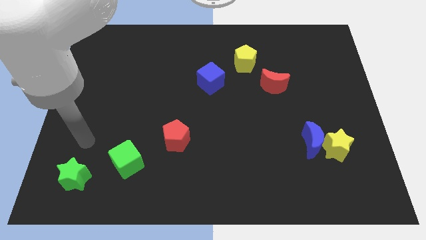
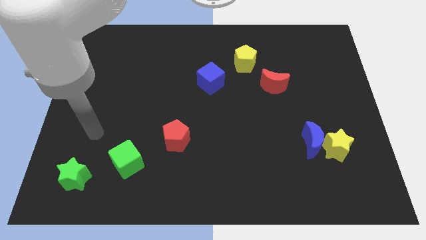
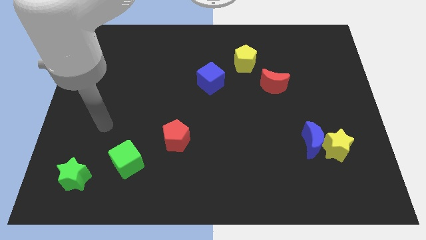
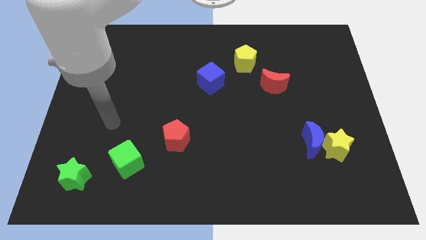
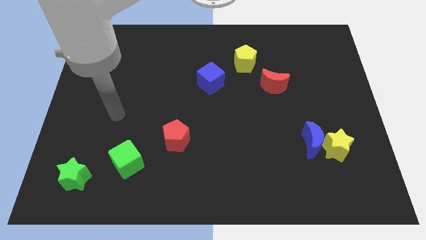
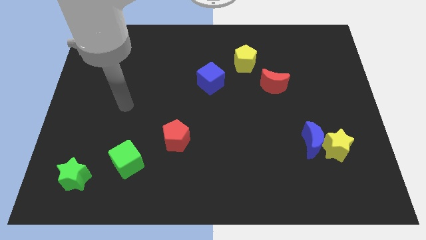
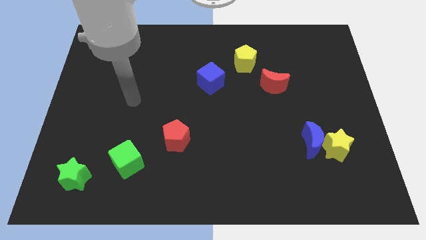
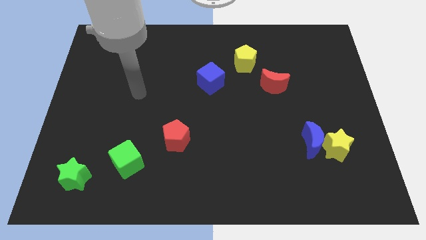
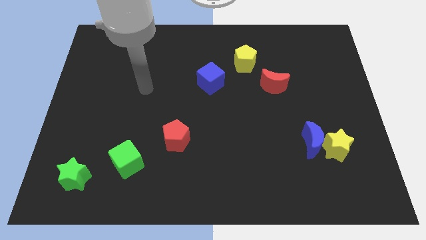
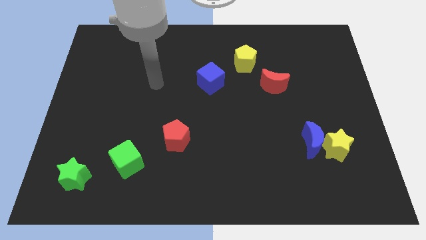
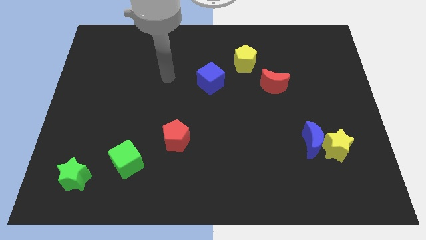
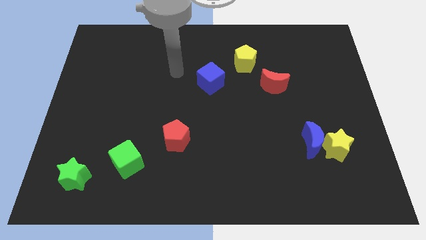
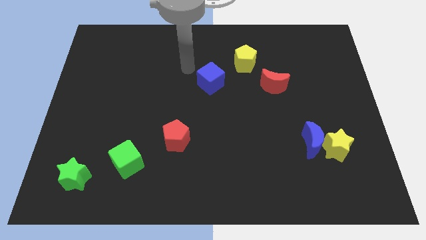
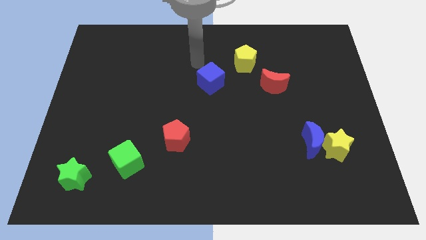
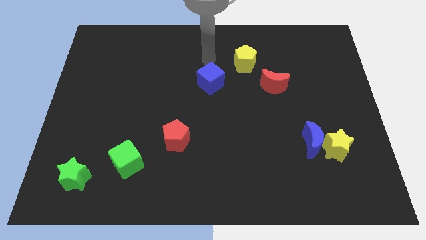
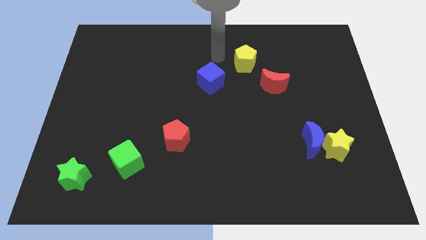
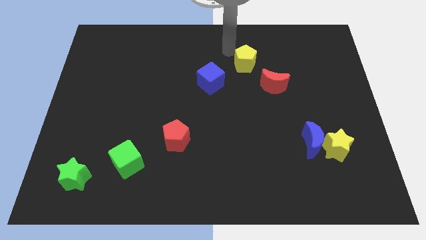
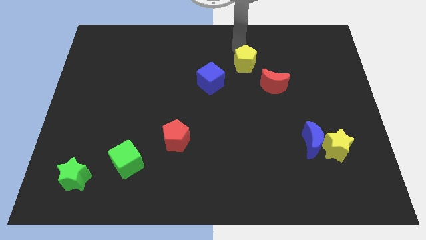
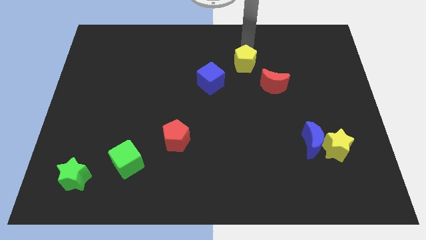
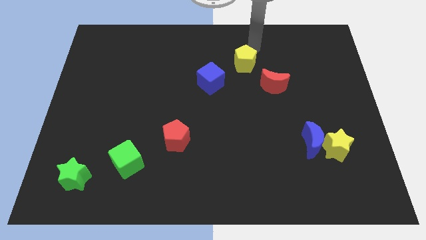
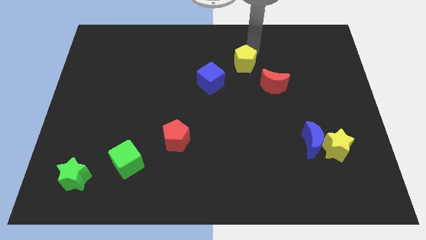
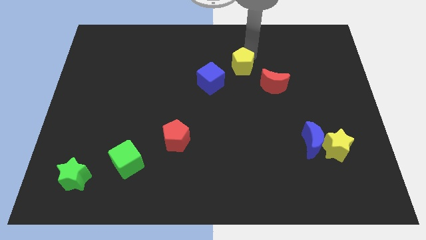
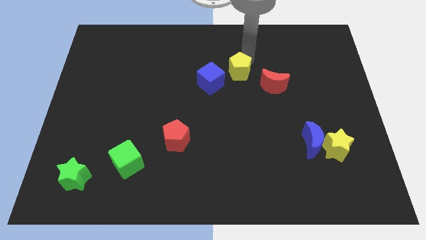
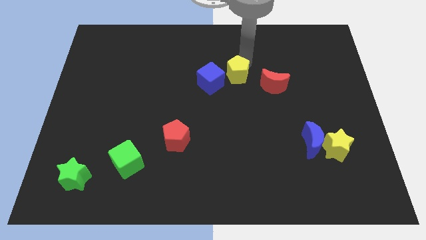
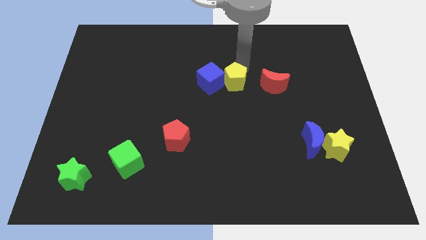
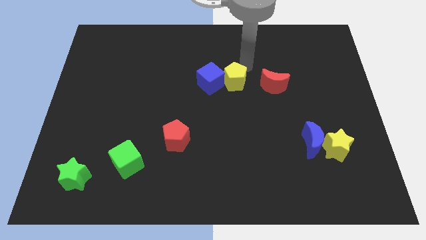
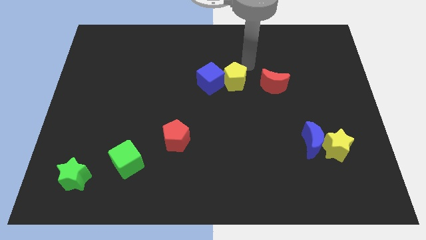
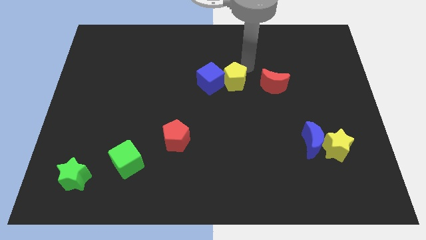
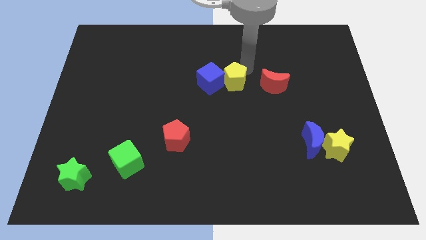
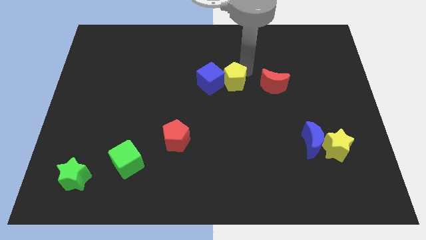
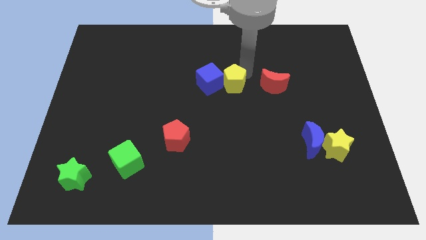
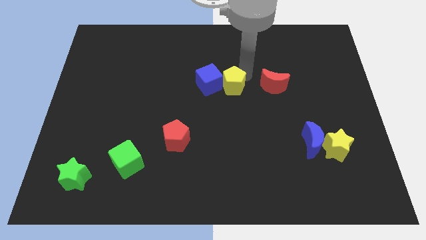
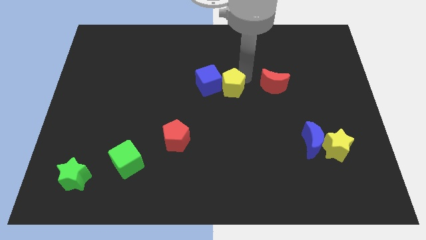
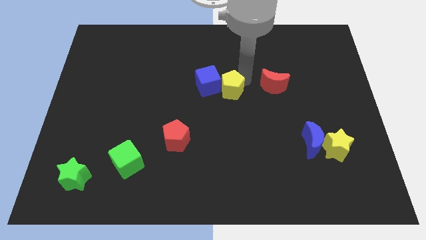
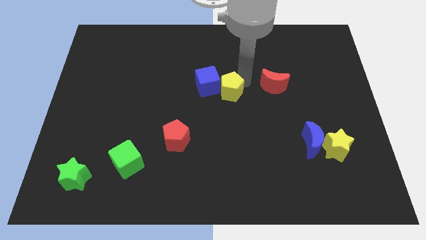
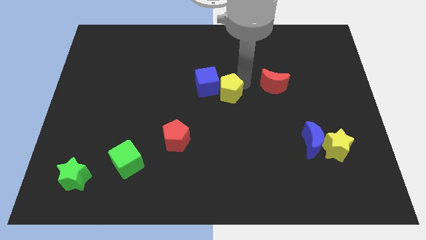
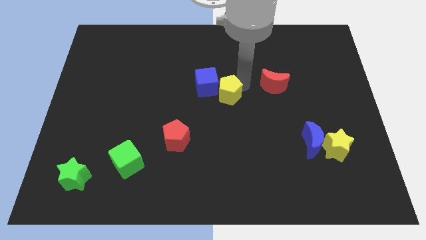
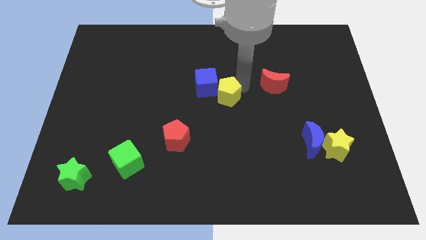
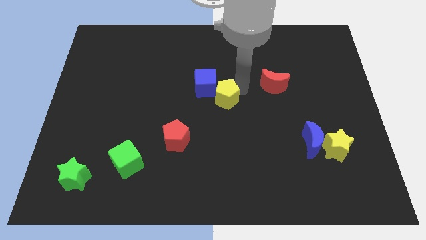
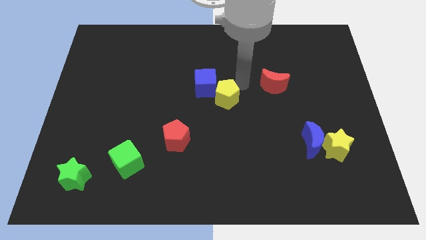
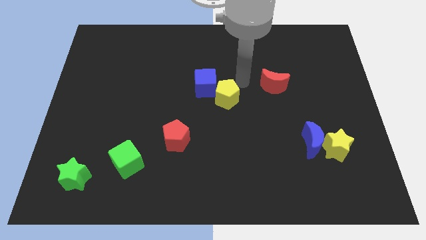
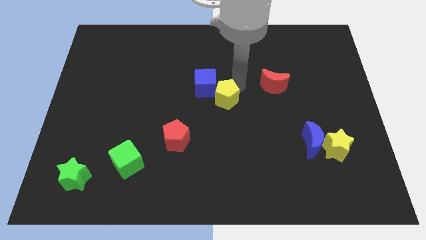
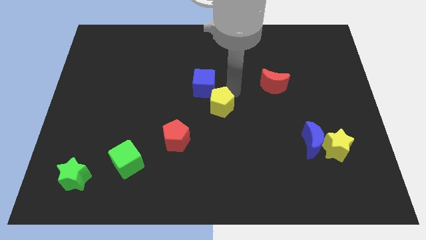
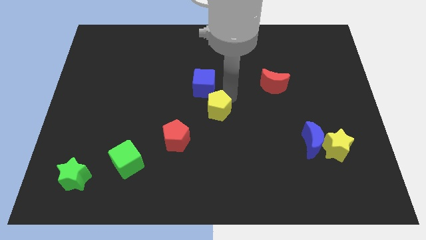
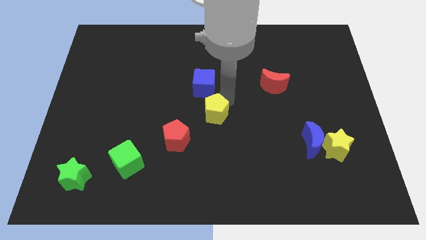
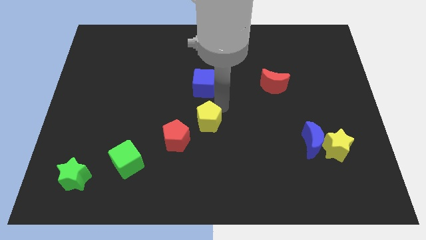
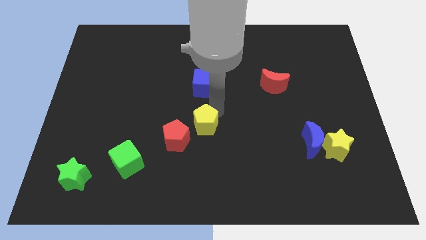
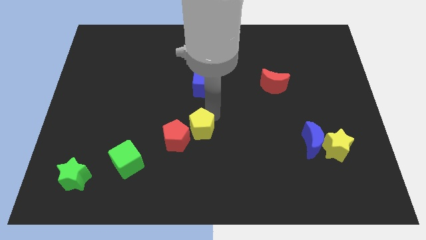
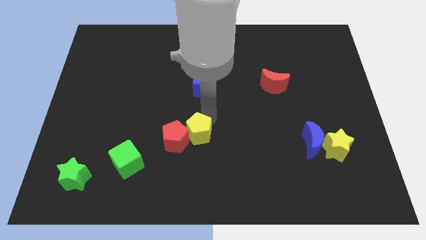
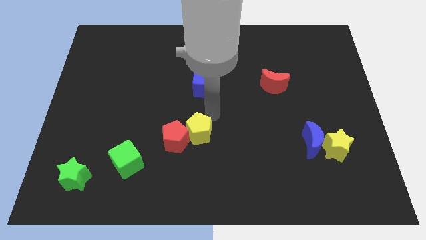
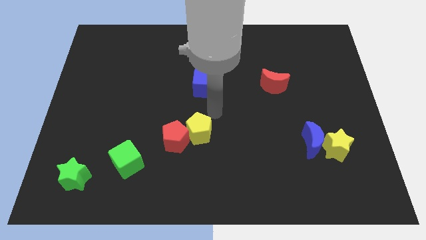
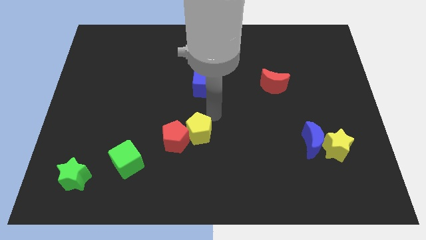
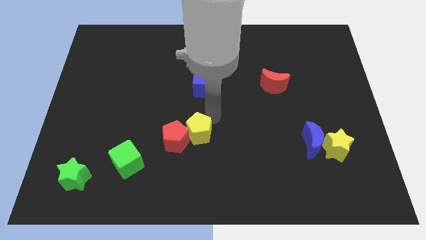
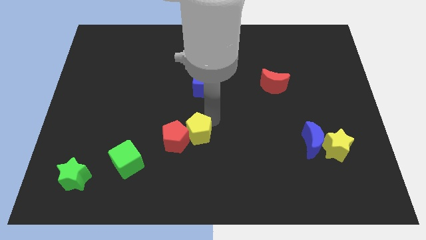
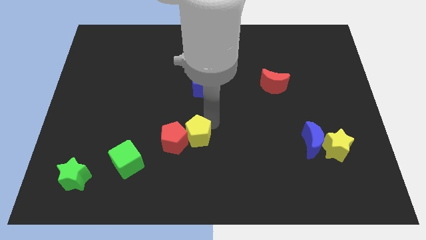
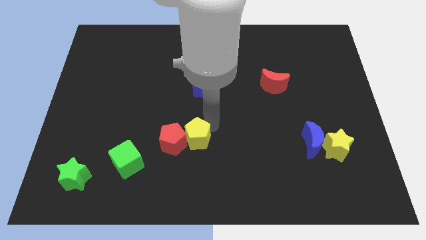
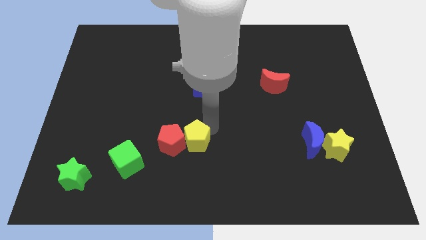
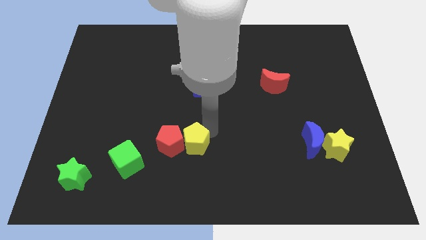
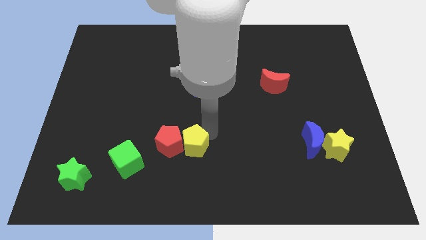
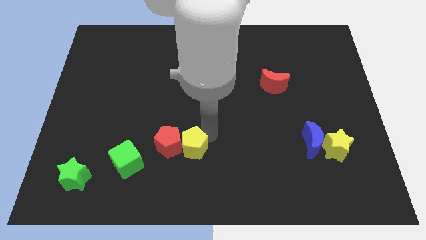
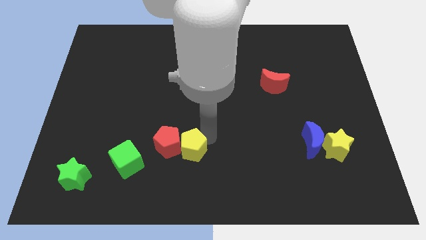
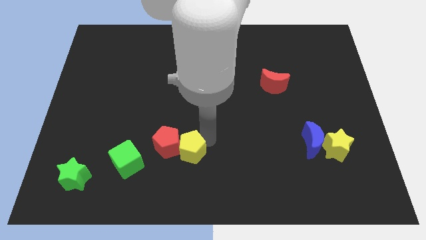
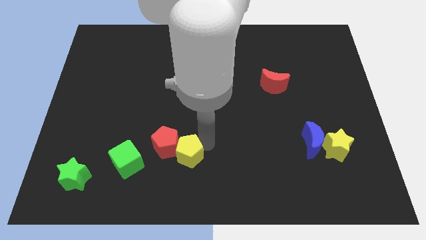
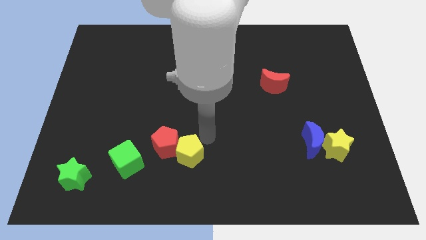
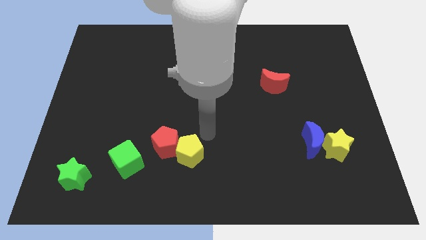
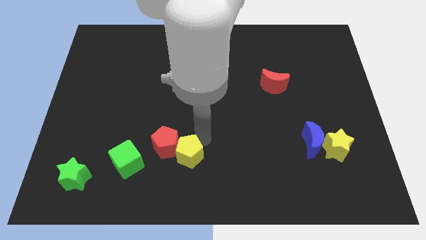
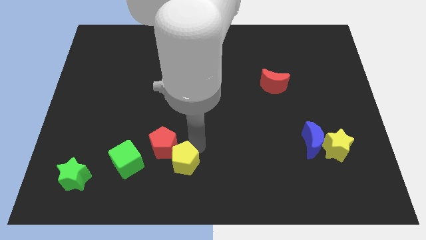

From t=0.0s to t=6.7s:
push the yellow pentagon below the red pentagon

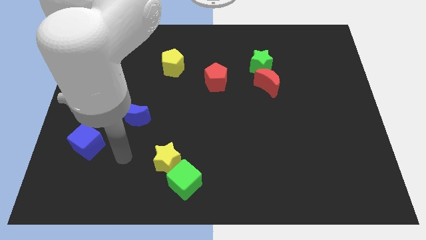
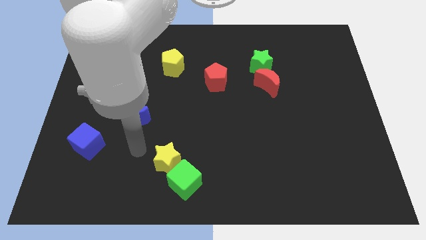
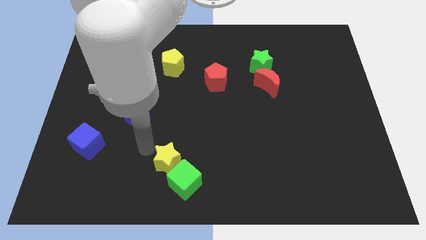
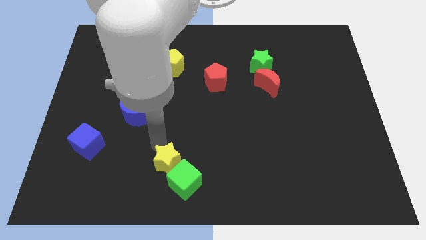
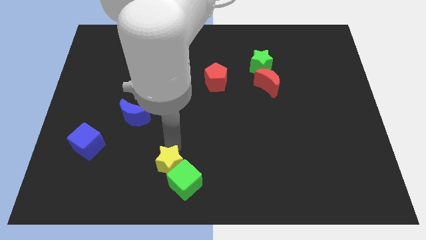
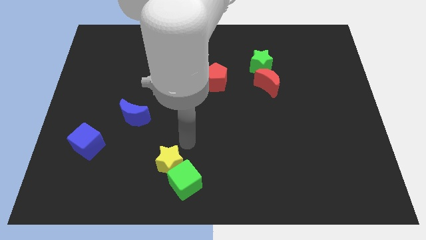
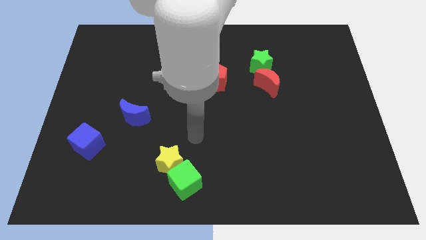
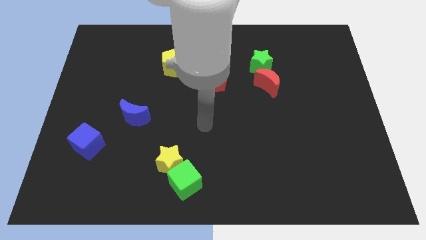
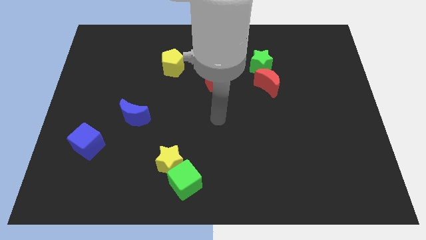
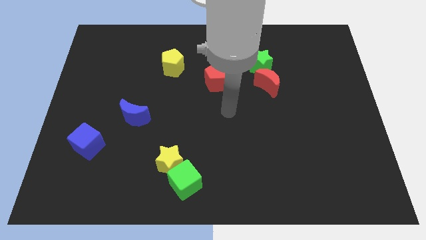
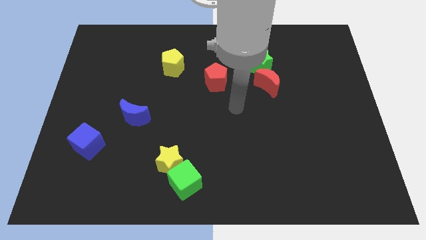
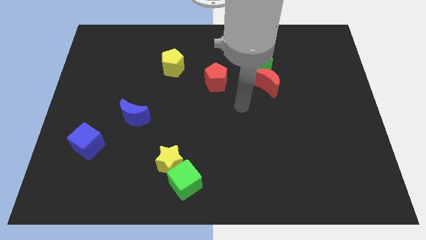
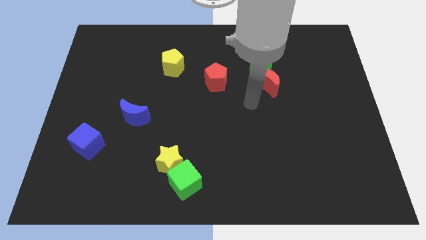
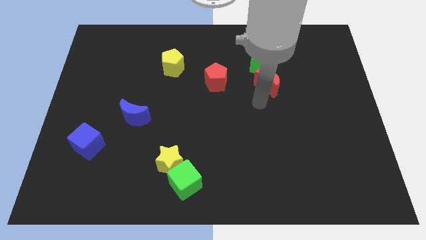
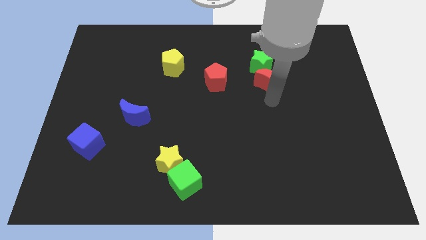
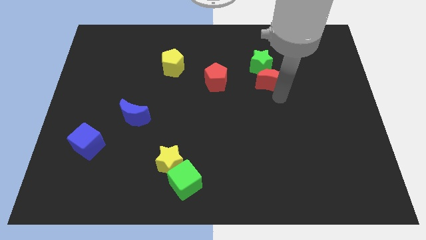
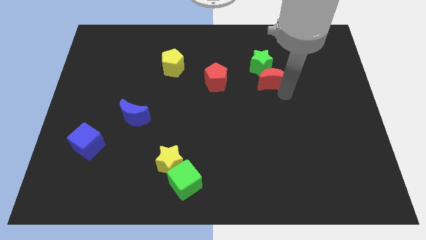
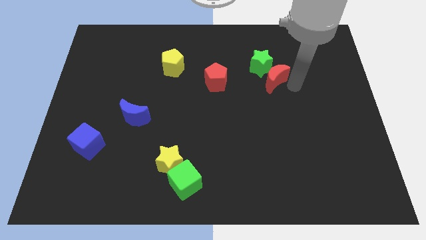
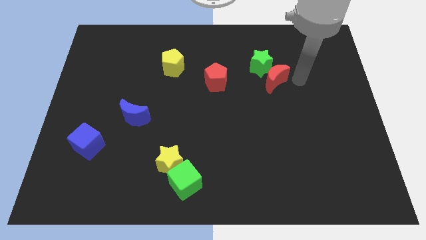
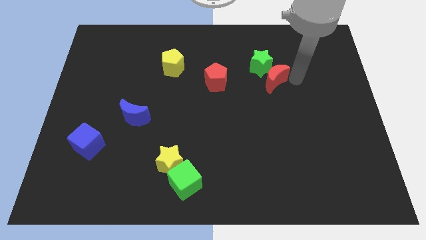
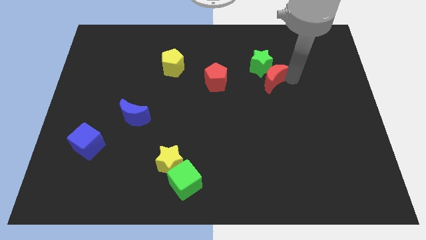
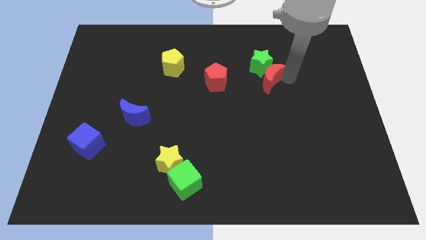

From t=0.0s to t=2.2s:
push the red moon to the bottom left side of the green star
